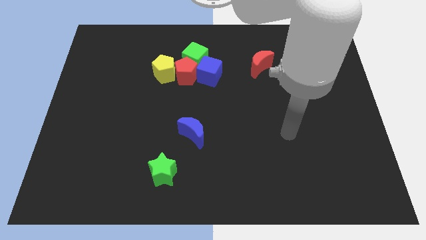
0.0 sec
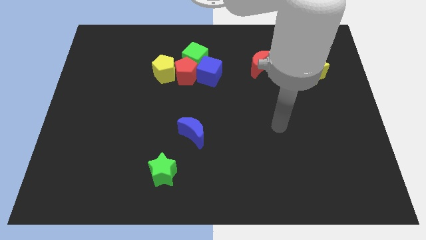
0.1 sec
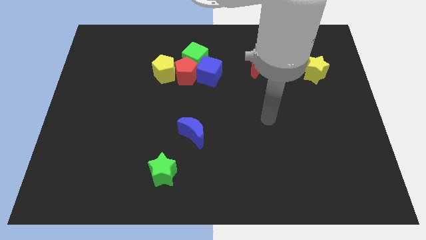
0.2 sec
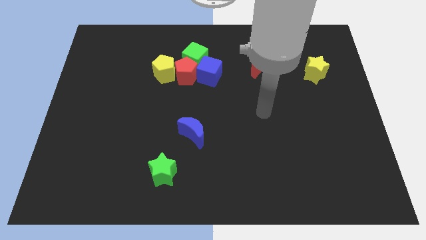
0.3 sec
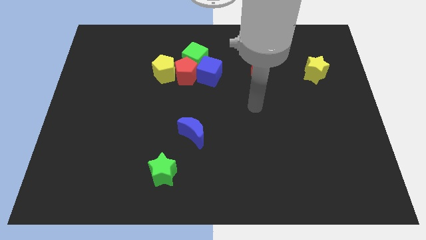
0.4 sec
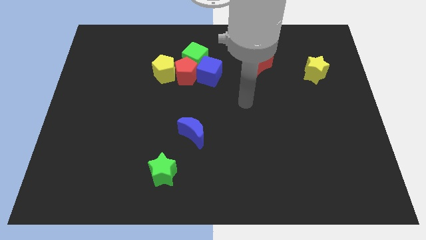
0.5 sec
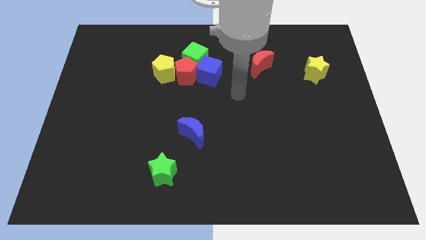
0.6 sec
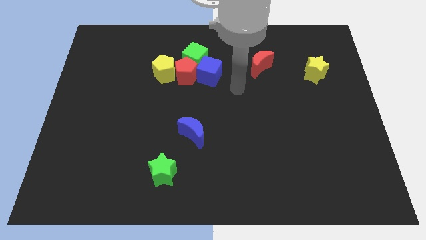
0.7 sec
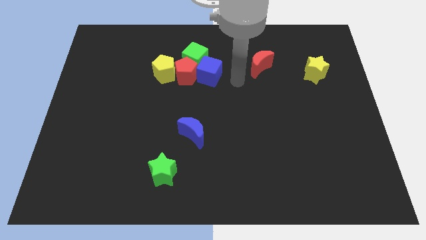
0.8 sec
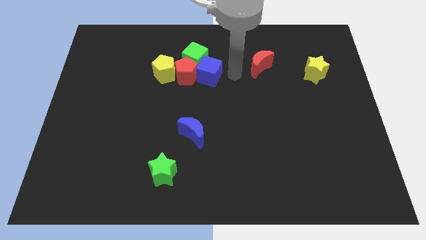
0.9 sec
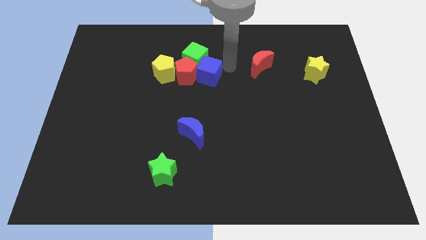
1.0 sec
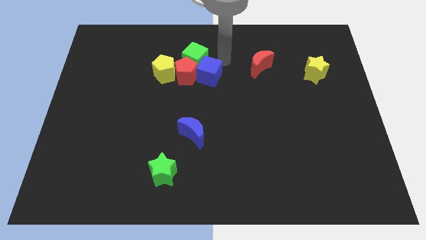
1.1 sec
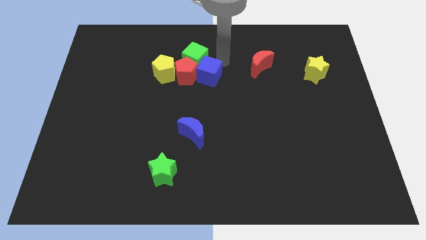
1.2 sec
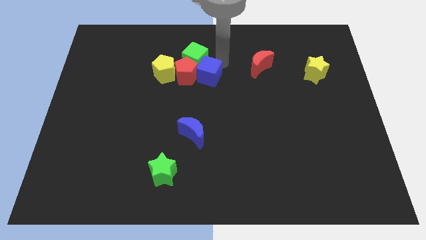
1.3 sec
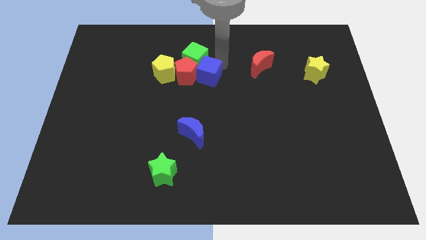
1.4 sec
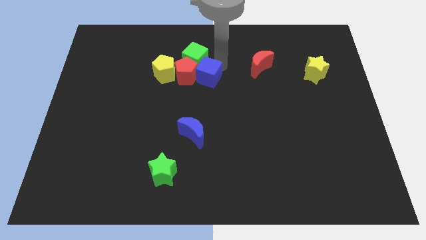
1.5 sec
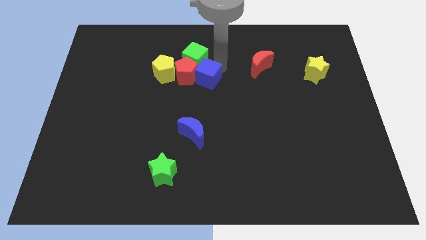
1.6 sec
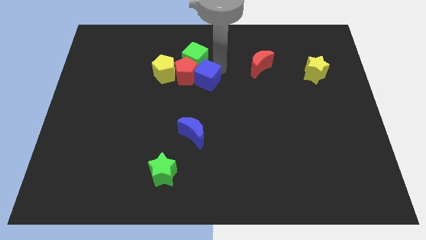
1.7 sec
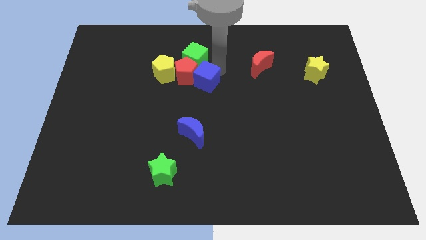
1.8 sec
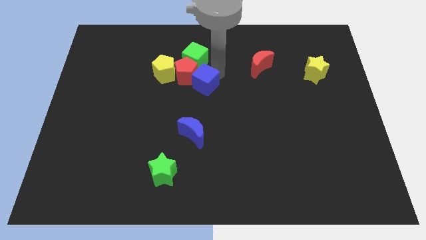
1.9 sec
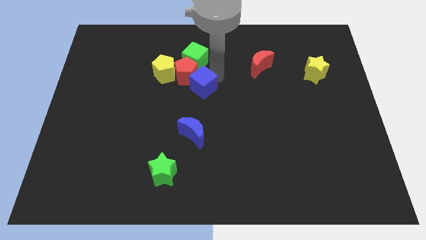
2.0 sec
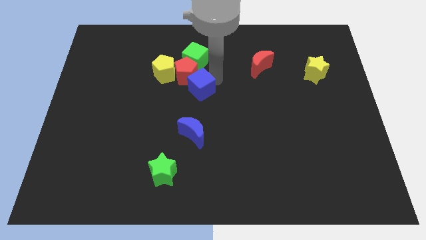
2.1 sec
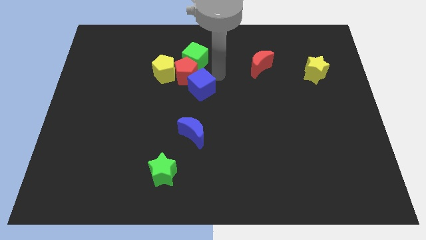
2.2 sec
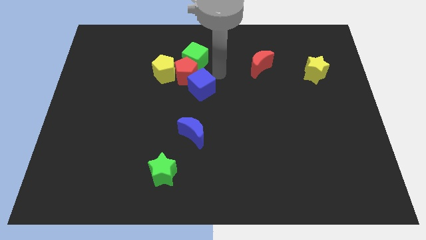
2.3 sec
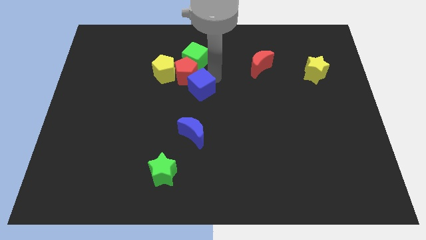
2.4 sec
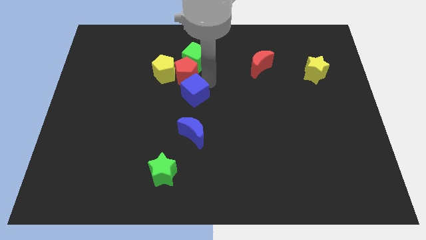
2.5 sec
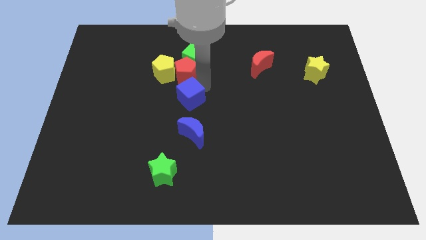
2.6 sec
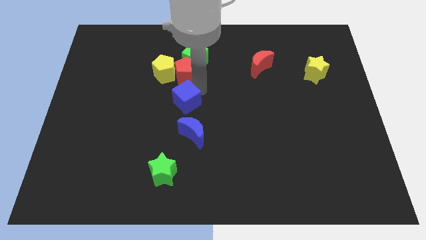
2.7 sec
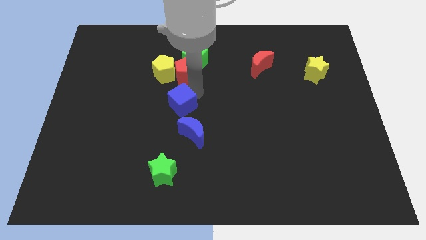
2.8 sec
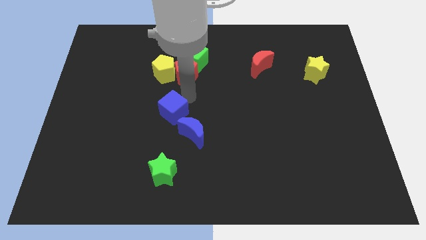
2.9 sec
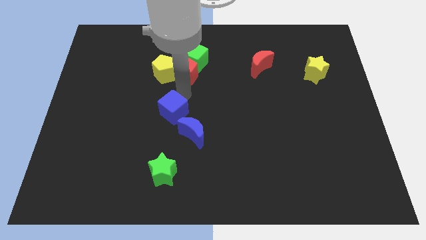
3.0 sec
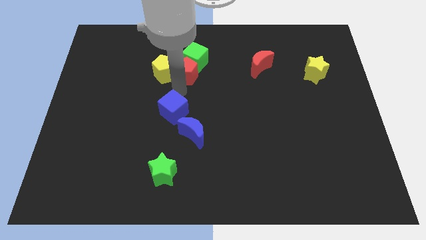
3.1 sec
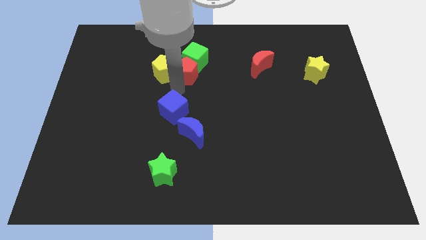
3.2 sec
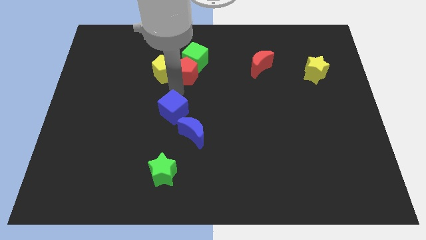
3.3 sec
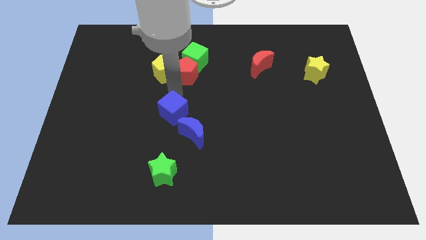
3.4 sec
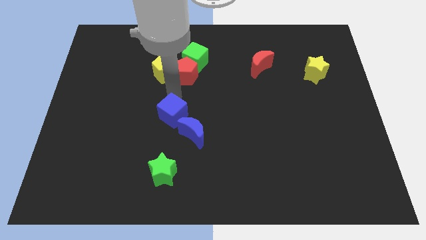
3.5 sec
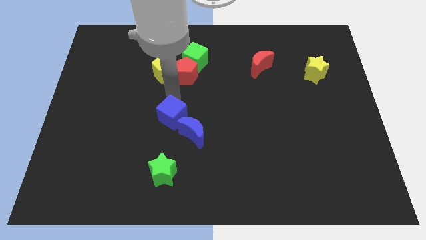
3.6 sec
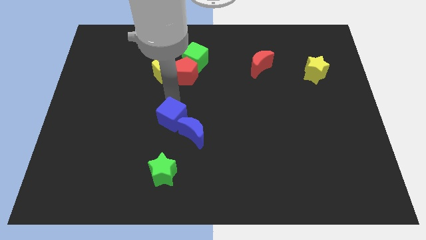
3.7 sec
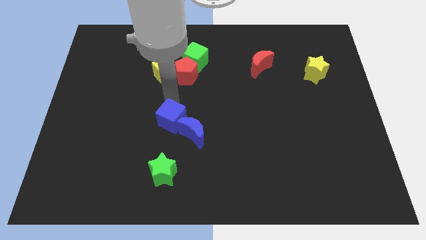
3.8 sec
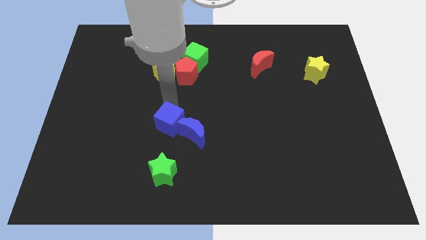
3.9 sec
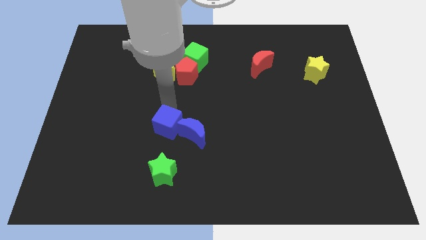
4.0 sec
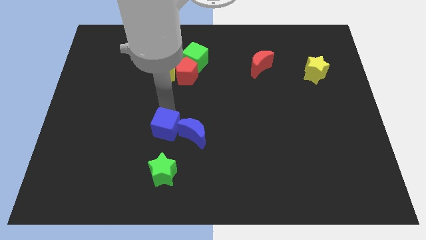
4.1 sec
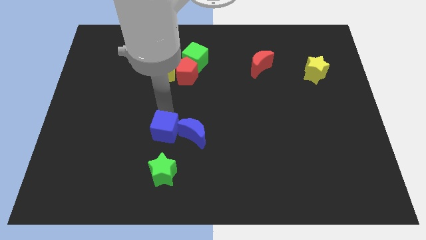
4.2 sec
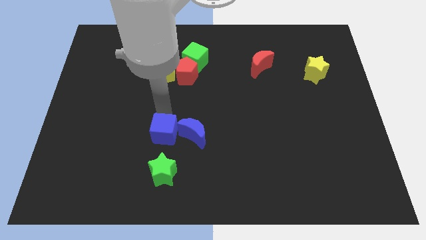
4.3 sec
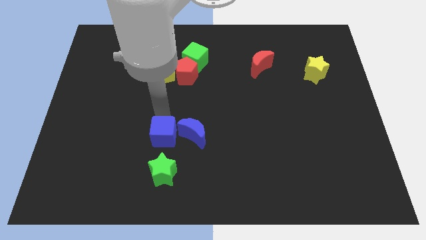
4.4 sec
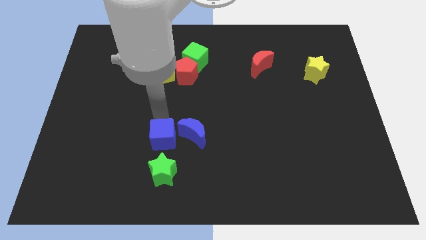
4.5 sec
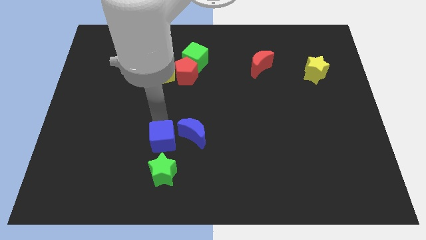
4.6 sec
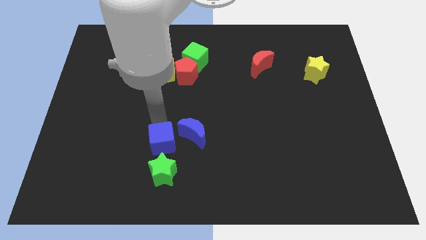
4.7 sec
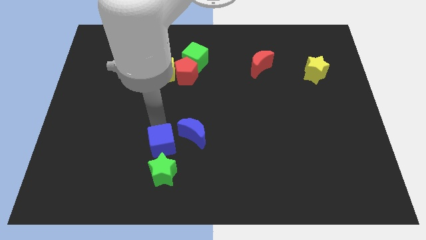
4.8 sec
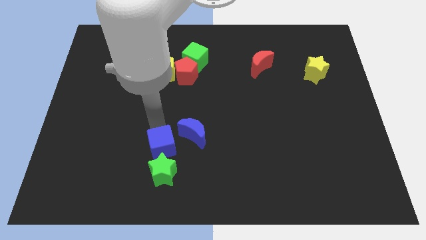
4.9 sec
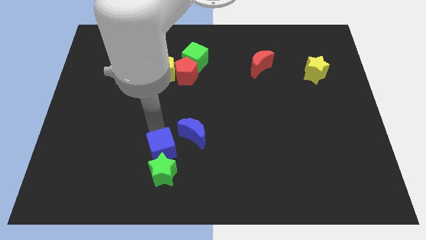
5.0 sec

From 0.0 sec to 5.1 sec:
slide the blue cube to the green star

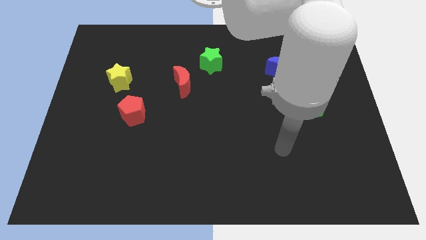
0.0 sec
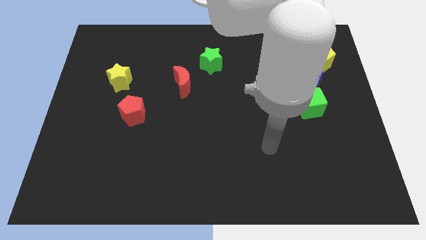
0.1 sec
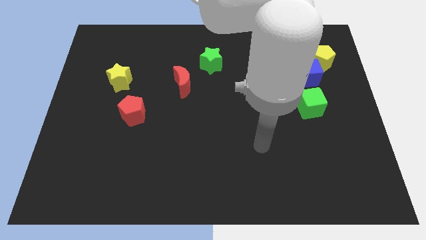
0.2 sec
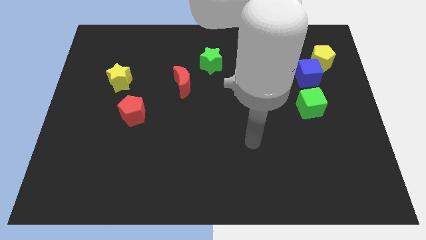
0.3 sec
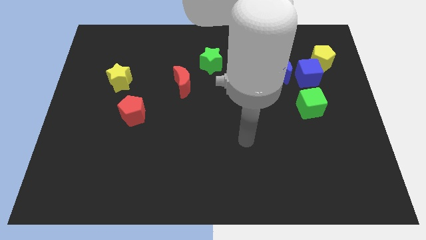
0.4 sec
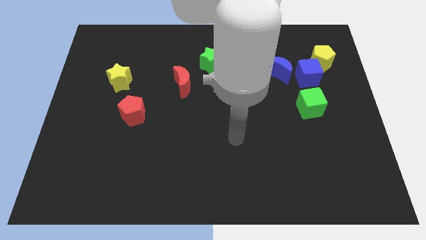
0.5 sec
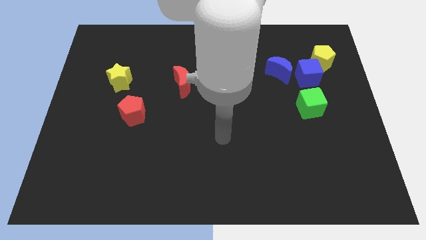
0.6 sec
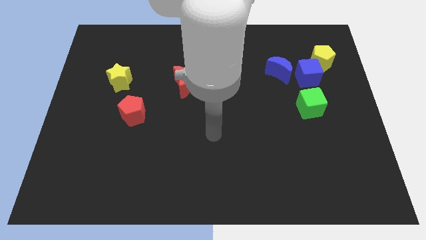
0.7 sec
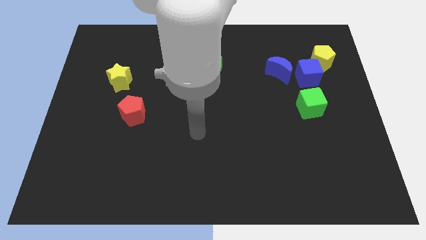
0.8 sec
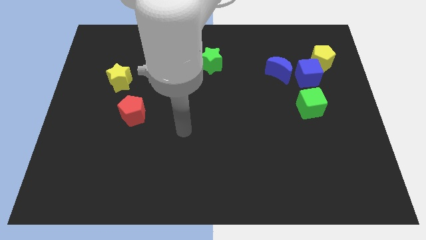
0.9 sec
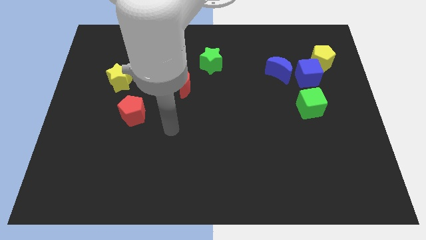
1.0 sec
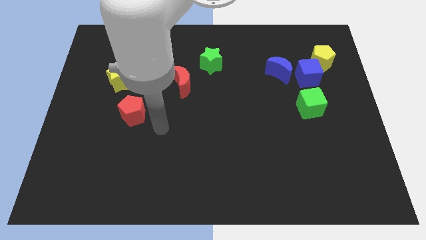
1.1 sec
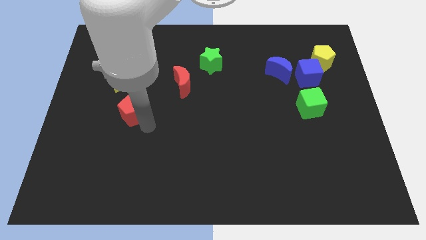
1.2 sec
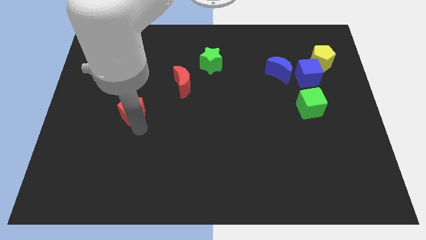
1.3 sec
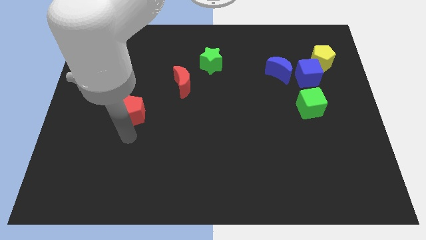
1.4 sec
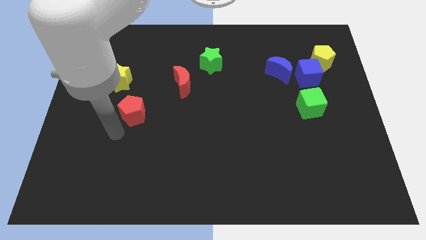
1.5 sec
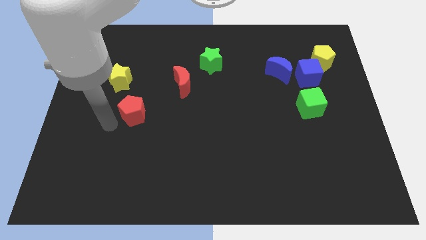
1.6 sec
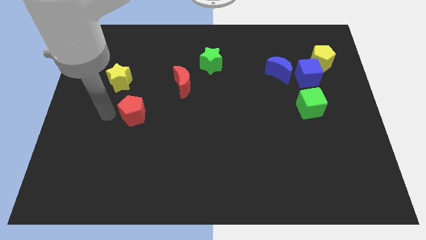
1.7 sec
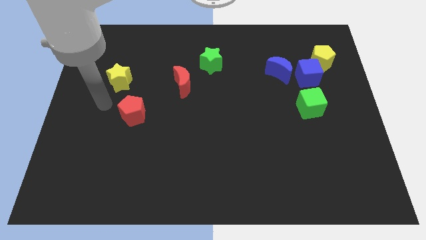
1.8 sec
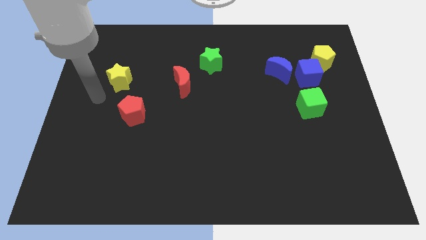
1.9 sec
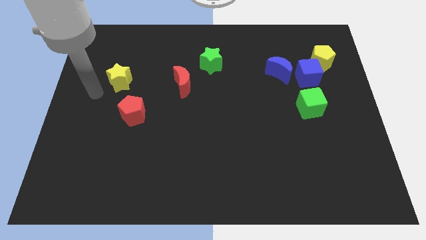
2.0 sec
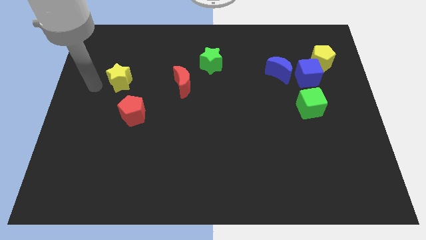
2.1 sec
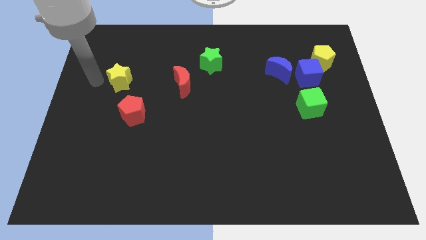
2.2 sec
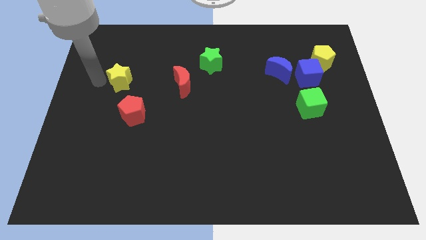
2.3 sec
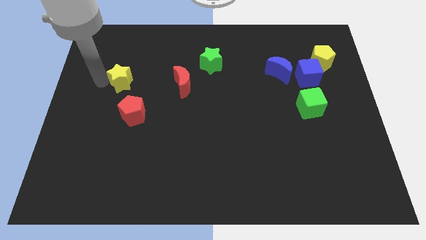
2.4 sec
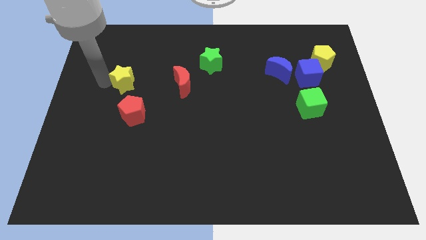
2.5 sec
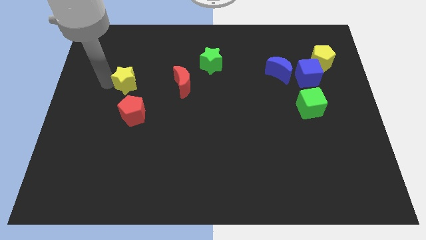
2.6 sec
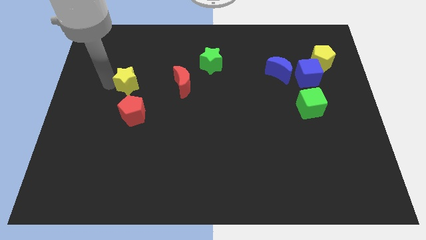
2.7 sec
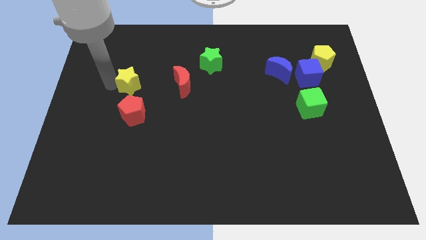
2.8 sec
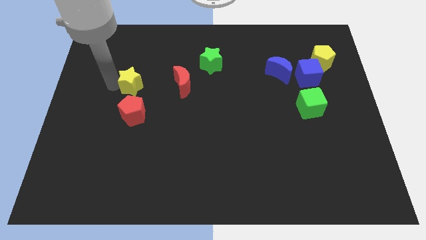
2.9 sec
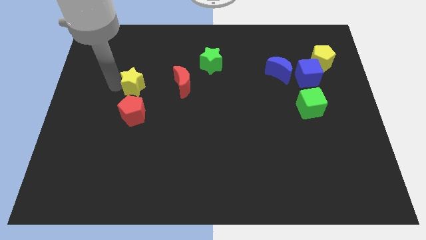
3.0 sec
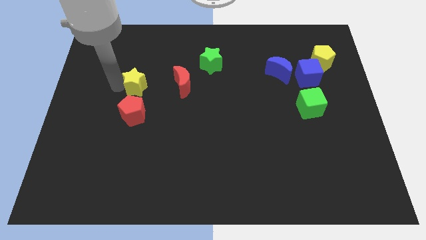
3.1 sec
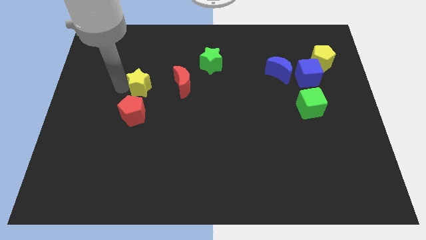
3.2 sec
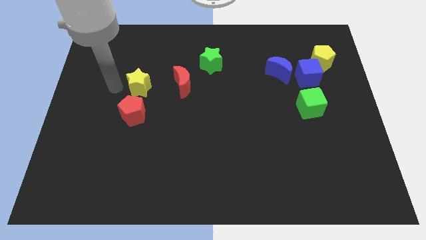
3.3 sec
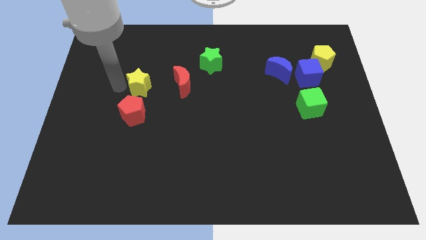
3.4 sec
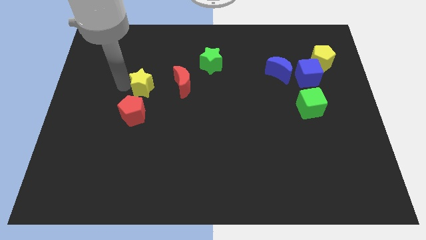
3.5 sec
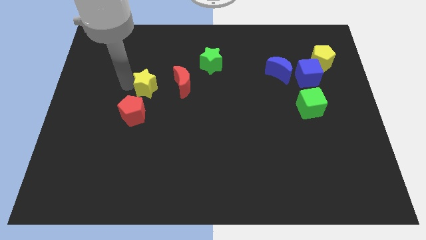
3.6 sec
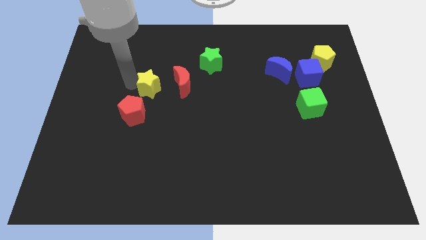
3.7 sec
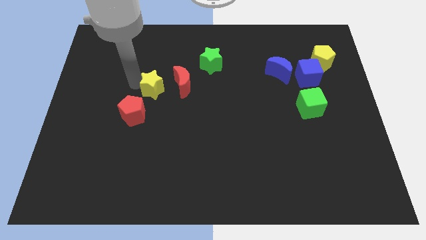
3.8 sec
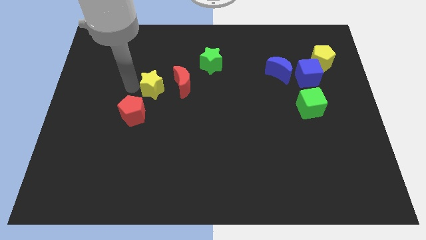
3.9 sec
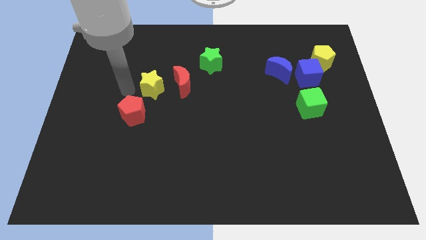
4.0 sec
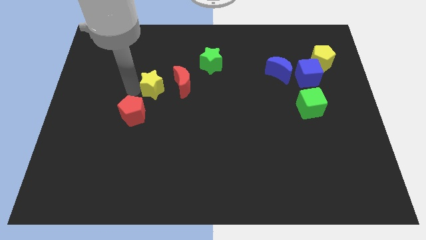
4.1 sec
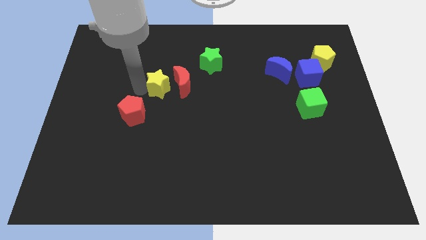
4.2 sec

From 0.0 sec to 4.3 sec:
push the yellow star next to the red moon
